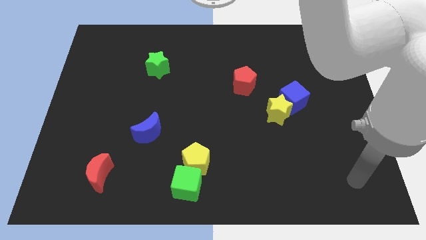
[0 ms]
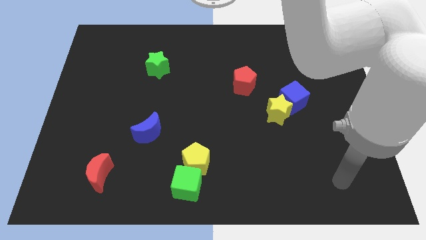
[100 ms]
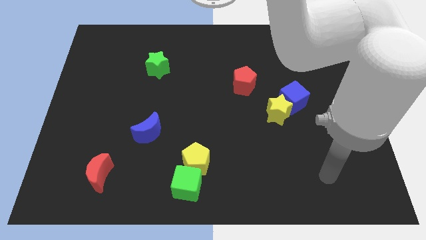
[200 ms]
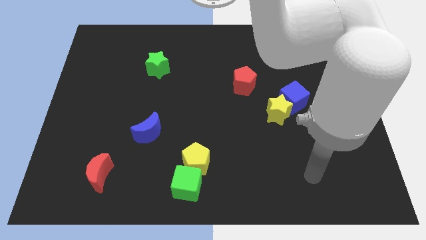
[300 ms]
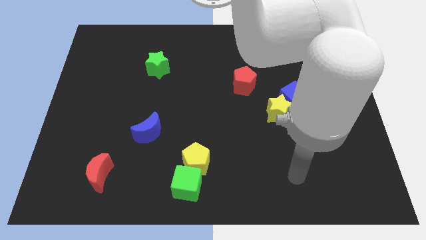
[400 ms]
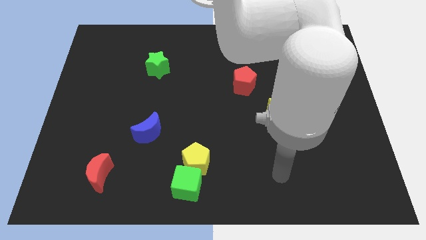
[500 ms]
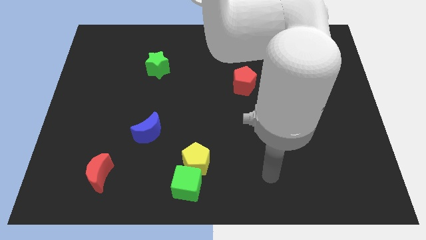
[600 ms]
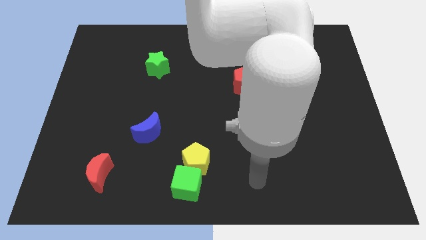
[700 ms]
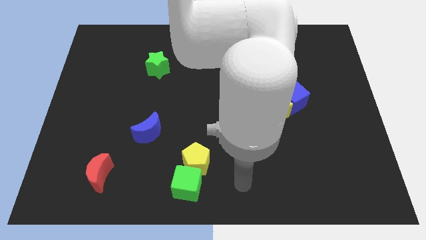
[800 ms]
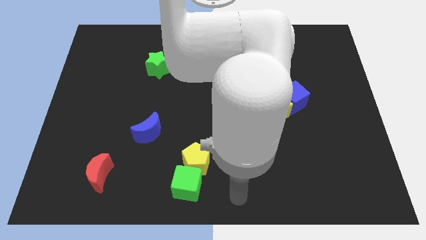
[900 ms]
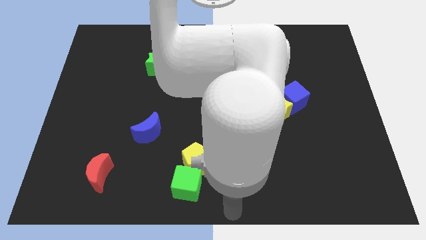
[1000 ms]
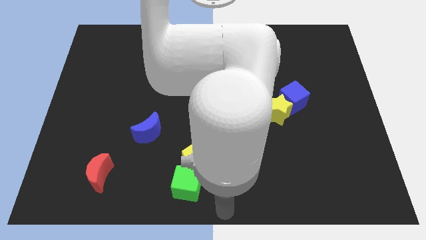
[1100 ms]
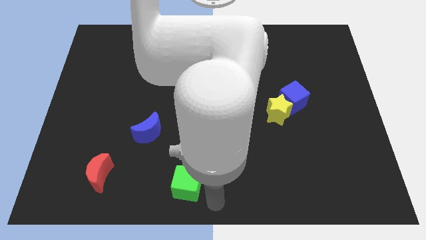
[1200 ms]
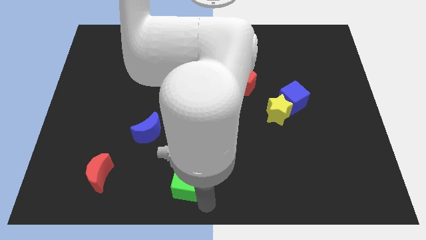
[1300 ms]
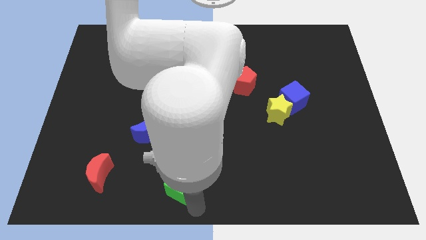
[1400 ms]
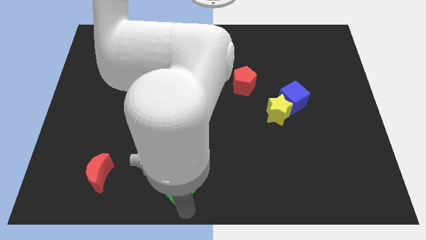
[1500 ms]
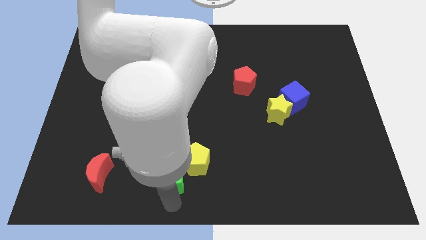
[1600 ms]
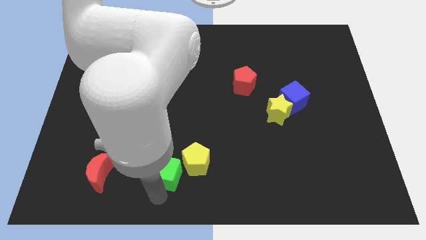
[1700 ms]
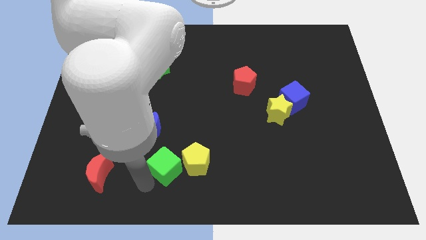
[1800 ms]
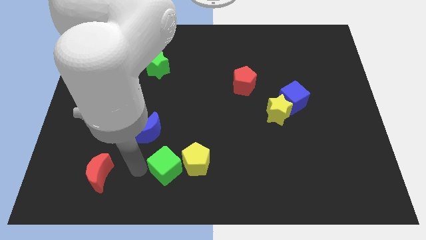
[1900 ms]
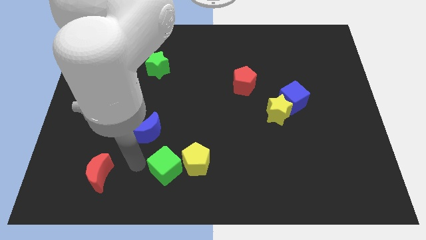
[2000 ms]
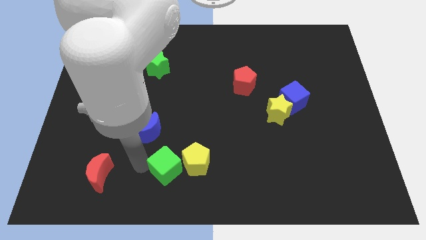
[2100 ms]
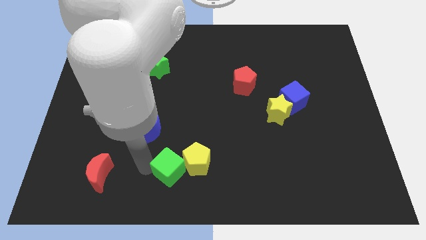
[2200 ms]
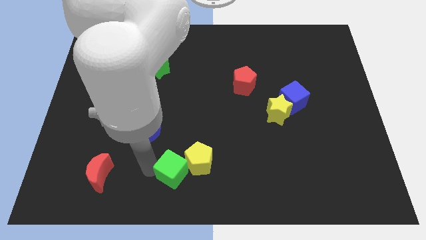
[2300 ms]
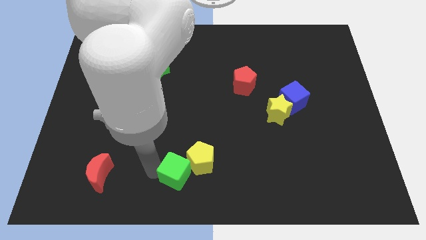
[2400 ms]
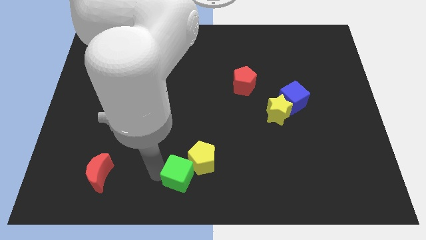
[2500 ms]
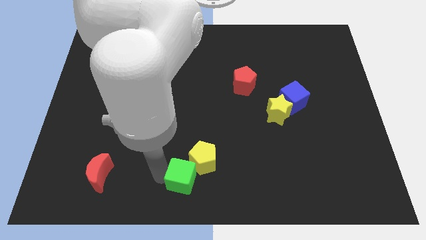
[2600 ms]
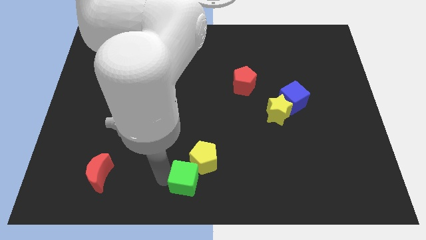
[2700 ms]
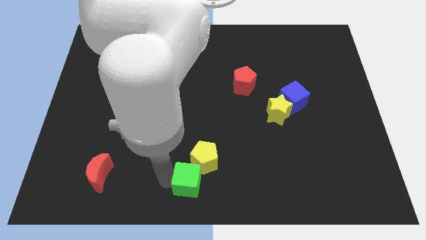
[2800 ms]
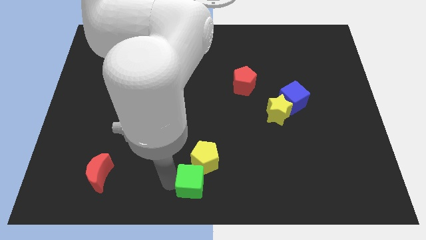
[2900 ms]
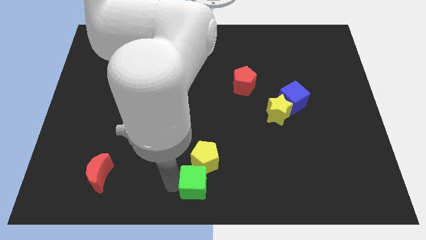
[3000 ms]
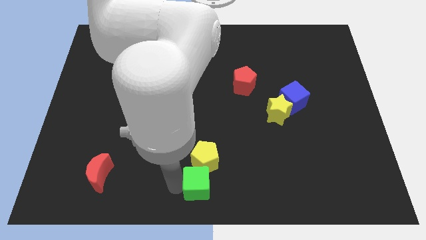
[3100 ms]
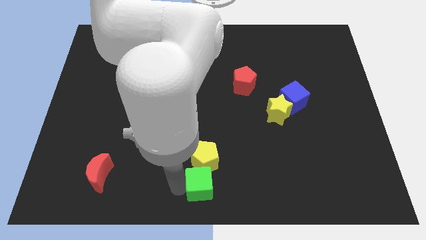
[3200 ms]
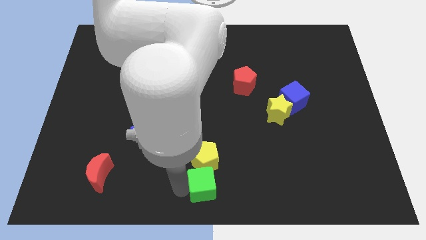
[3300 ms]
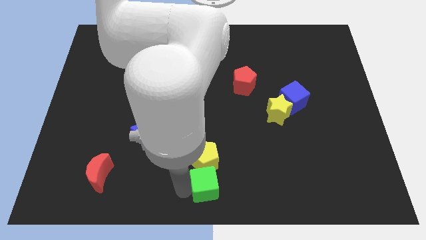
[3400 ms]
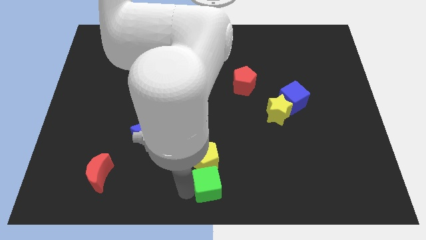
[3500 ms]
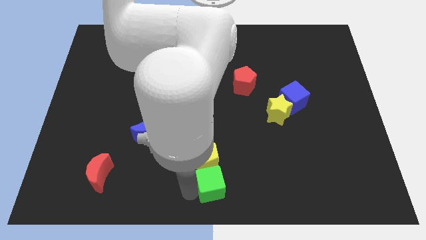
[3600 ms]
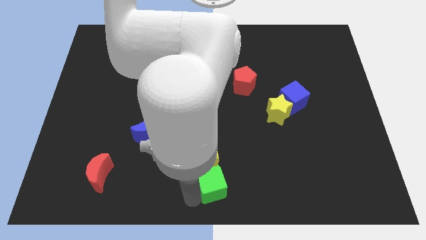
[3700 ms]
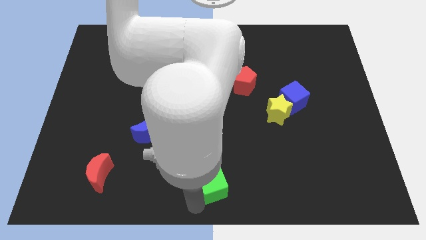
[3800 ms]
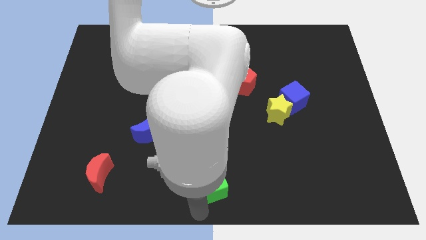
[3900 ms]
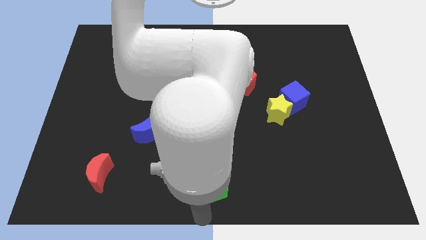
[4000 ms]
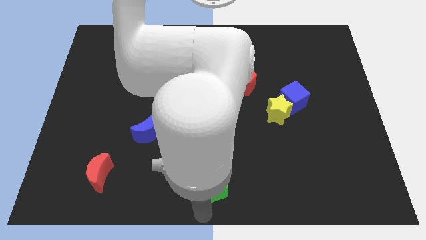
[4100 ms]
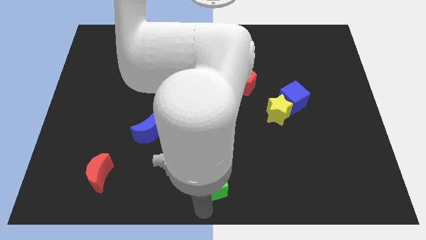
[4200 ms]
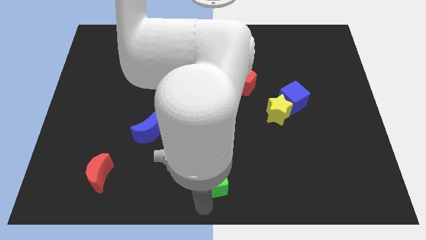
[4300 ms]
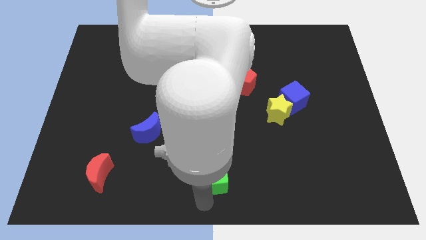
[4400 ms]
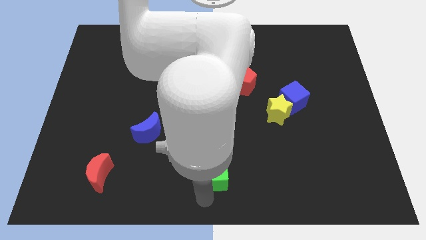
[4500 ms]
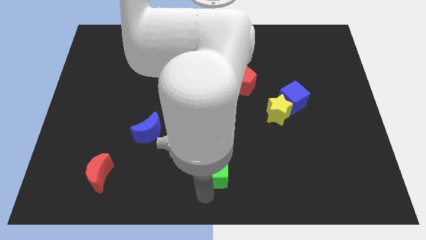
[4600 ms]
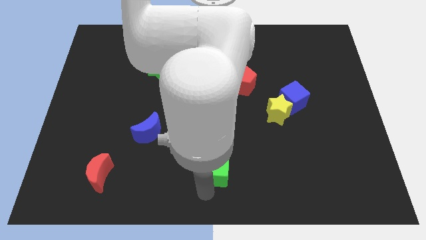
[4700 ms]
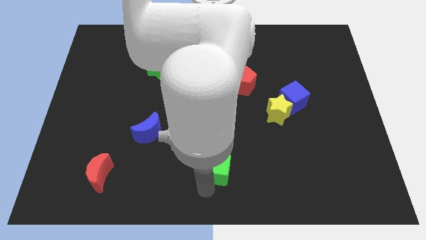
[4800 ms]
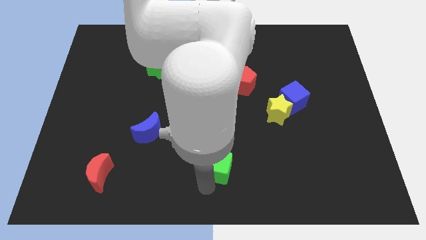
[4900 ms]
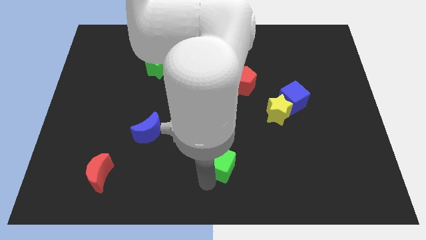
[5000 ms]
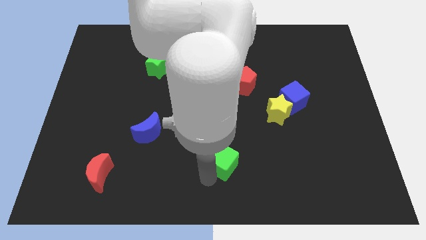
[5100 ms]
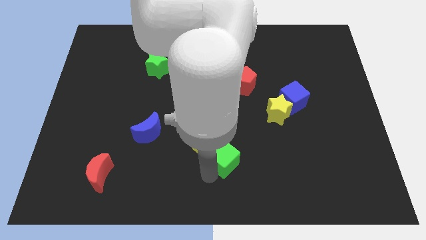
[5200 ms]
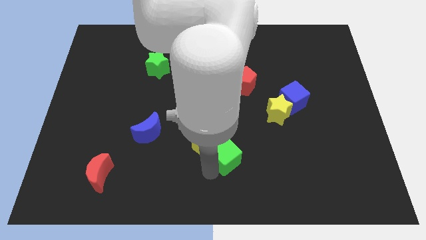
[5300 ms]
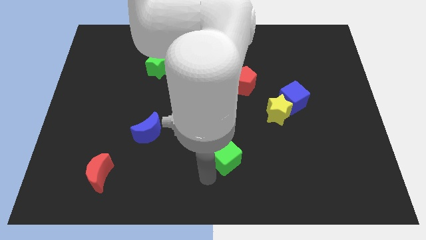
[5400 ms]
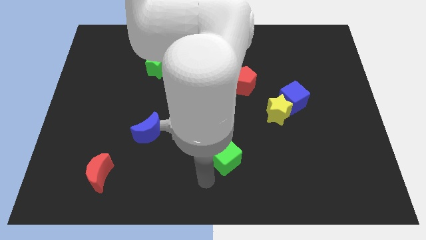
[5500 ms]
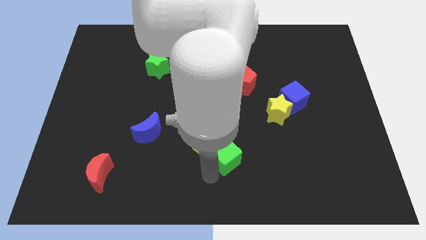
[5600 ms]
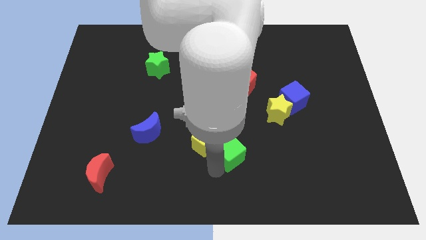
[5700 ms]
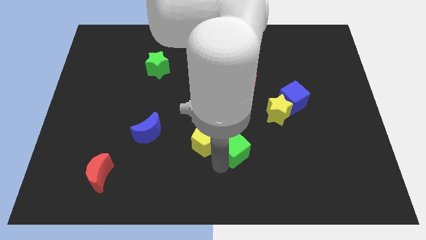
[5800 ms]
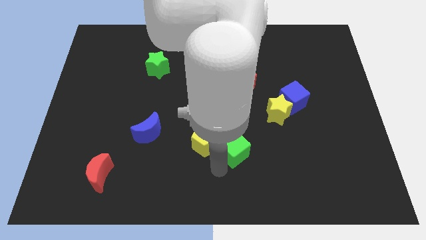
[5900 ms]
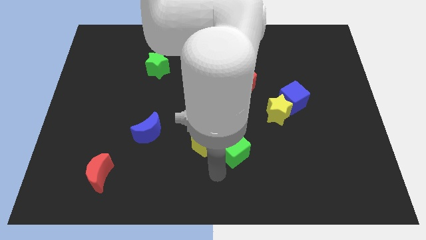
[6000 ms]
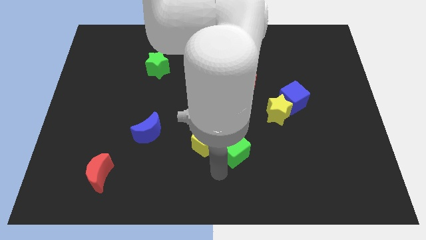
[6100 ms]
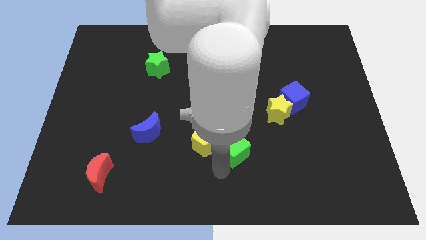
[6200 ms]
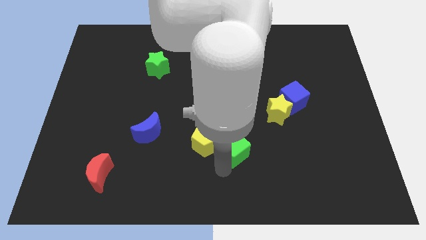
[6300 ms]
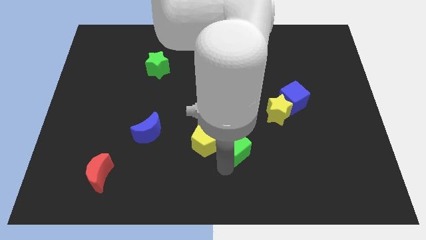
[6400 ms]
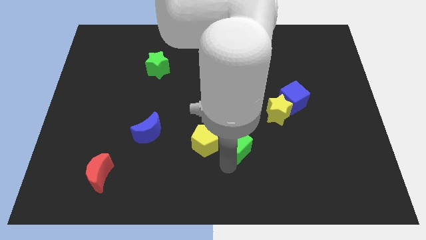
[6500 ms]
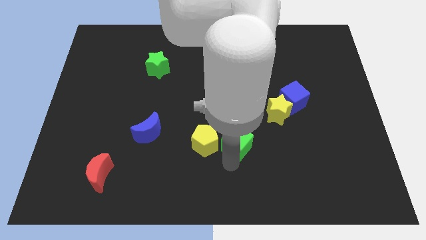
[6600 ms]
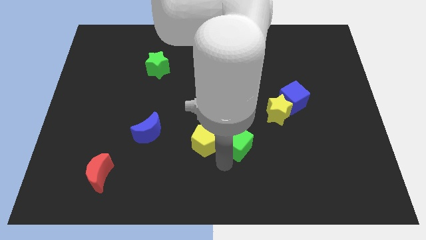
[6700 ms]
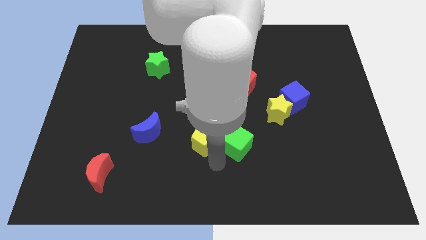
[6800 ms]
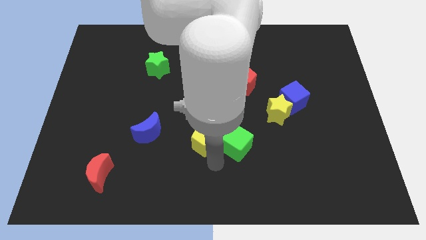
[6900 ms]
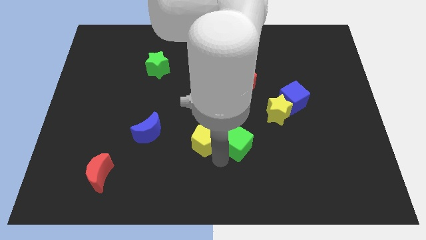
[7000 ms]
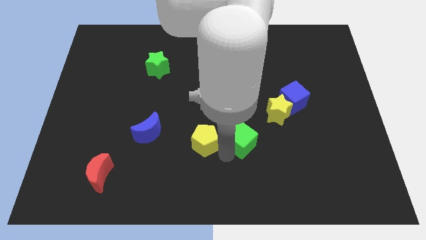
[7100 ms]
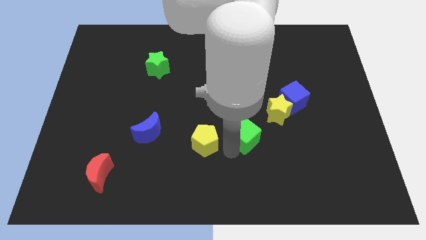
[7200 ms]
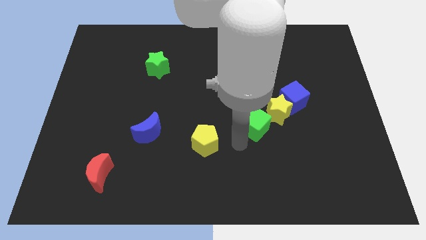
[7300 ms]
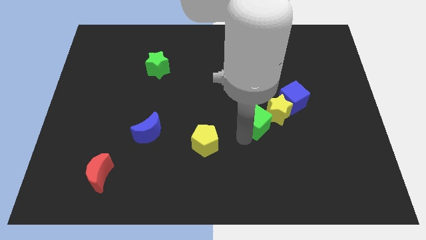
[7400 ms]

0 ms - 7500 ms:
move the green cube to the yellow star
